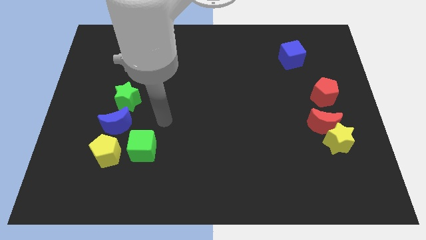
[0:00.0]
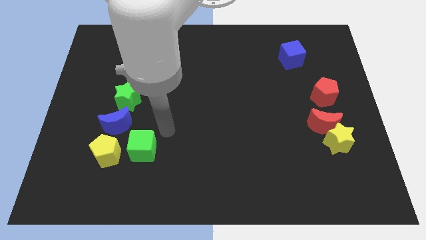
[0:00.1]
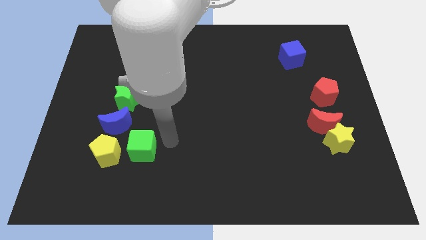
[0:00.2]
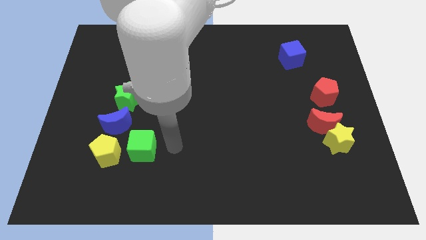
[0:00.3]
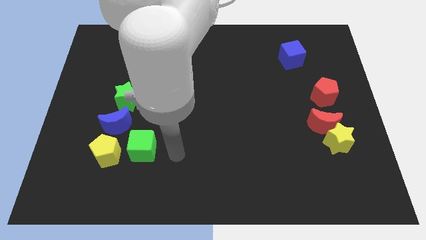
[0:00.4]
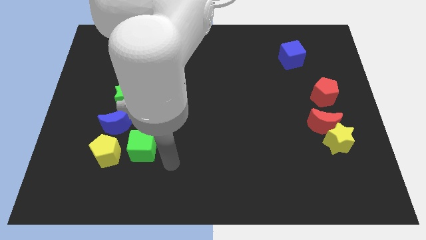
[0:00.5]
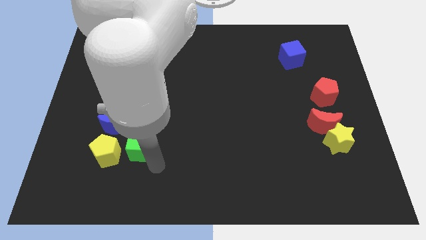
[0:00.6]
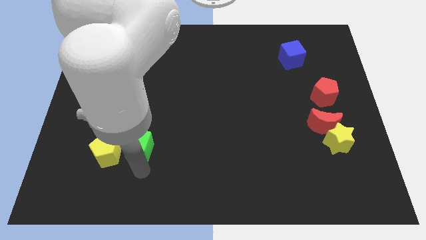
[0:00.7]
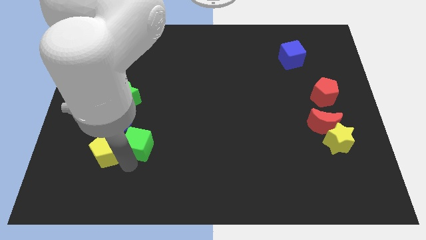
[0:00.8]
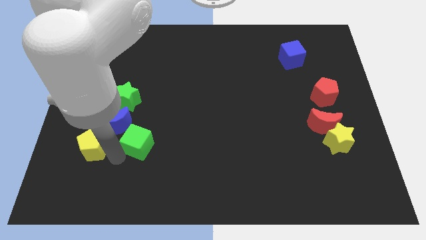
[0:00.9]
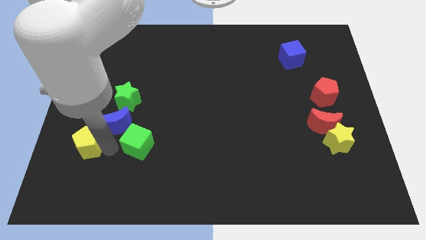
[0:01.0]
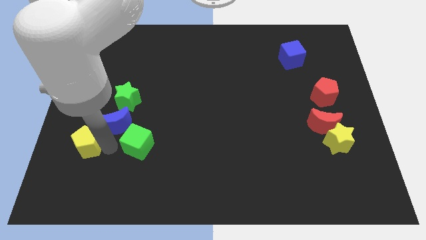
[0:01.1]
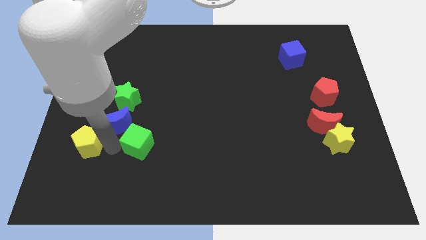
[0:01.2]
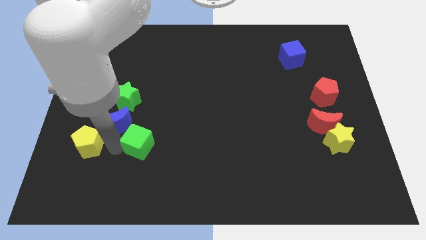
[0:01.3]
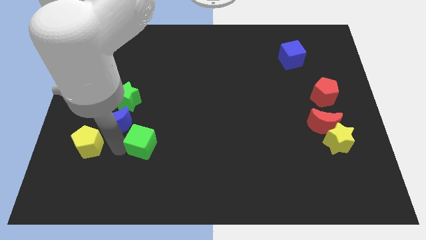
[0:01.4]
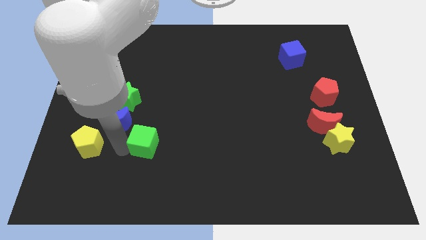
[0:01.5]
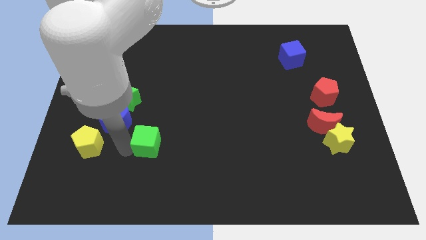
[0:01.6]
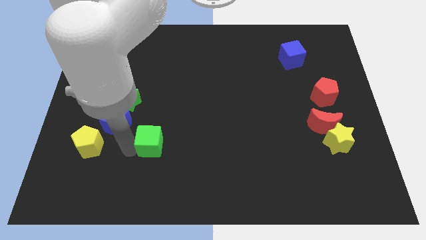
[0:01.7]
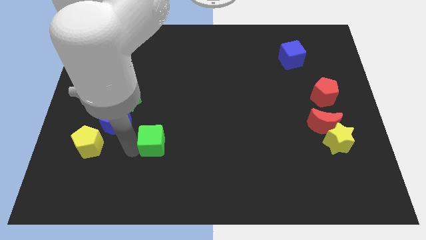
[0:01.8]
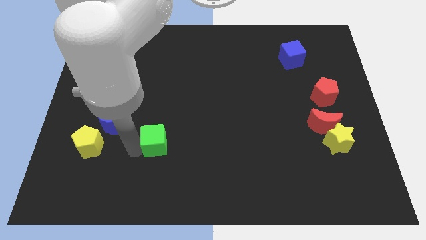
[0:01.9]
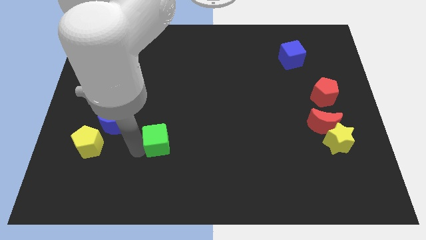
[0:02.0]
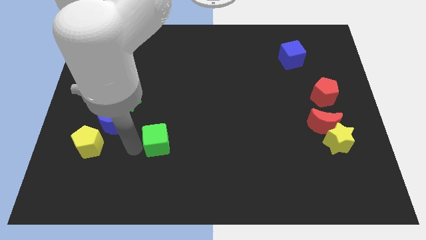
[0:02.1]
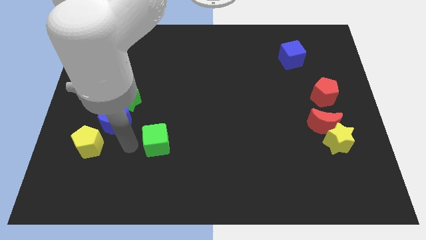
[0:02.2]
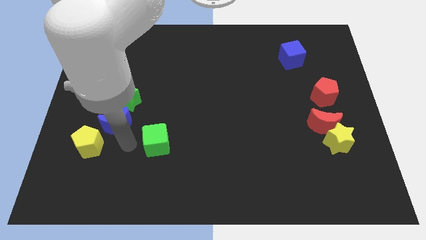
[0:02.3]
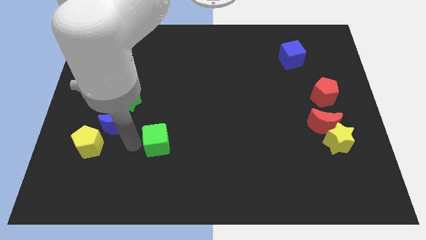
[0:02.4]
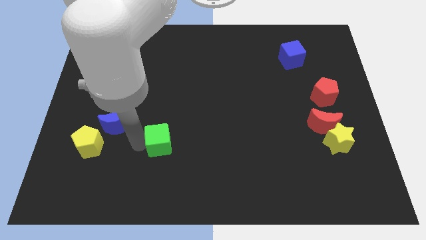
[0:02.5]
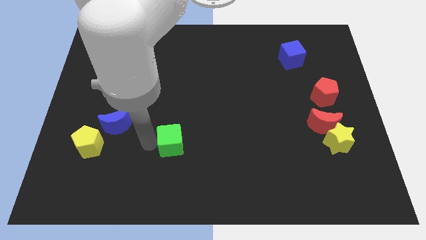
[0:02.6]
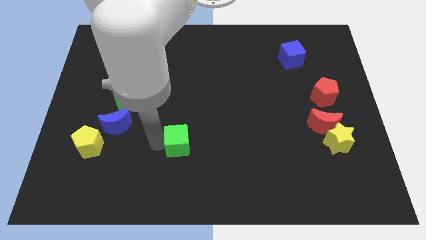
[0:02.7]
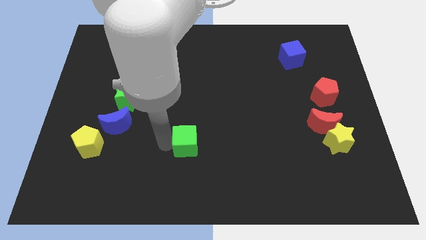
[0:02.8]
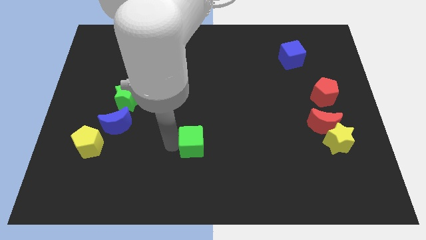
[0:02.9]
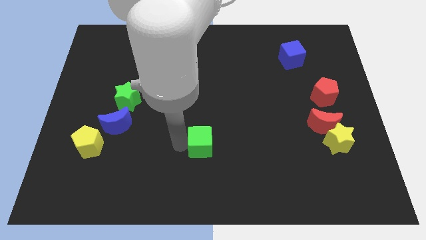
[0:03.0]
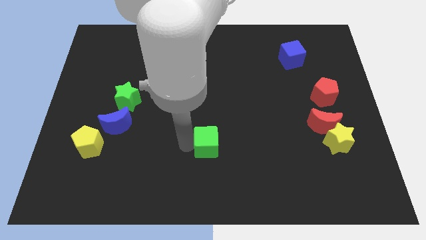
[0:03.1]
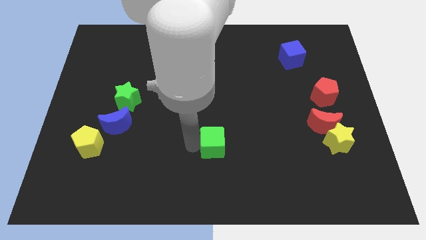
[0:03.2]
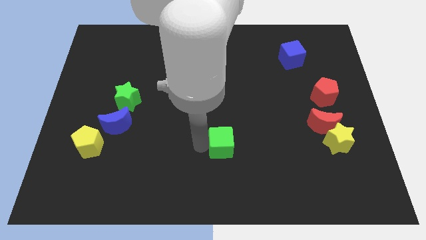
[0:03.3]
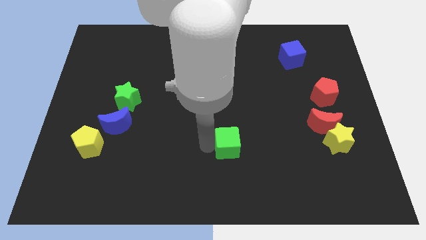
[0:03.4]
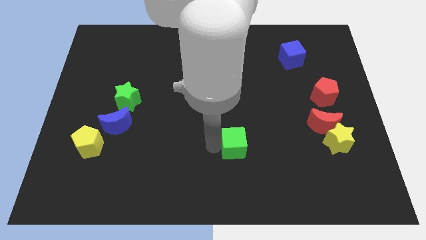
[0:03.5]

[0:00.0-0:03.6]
push the green cube to the right

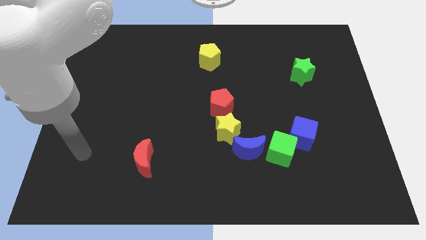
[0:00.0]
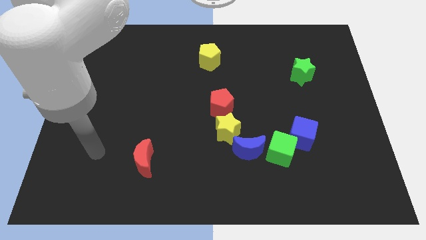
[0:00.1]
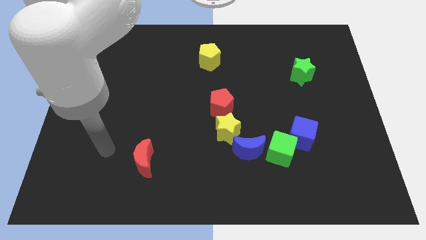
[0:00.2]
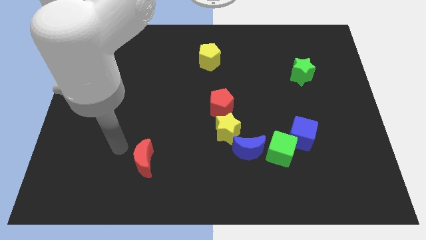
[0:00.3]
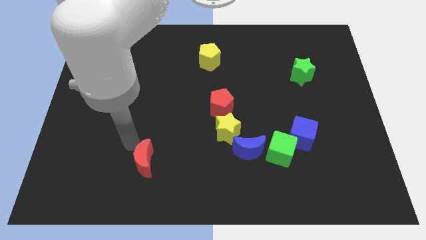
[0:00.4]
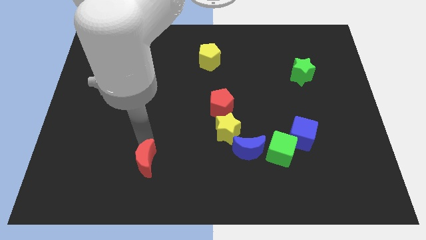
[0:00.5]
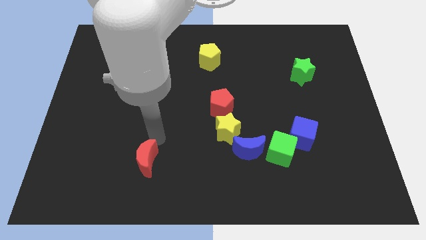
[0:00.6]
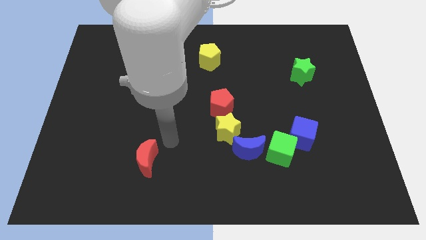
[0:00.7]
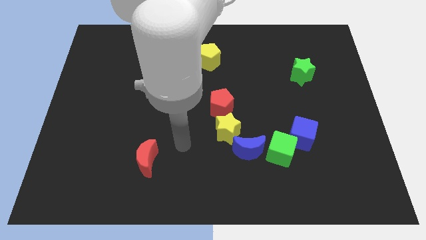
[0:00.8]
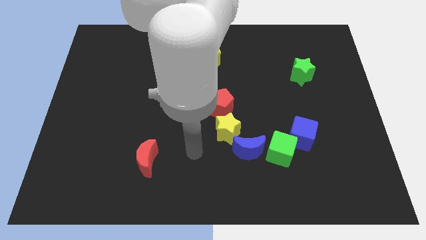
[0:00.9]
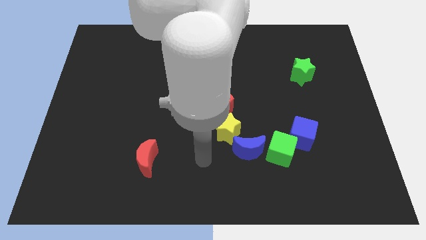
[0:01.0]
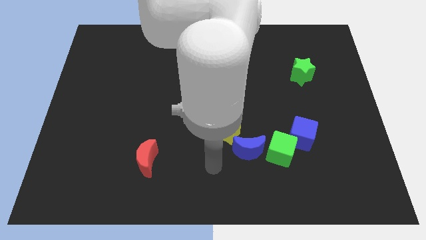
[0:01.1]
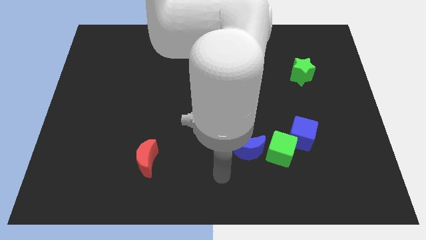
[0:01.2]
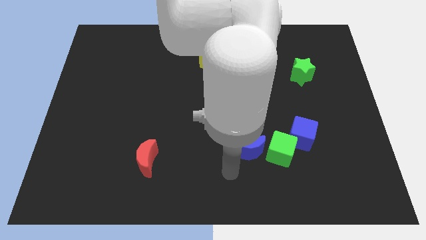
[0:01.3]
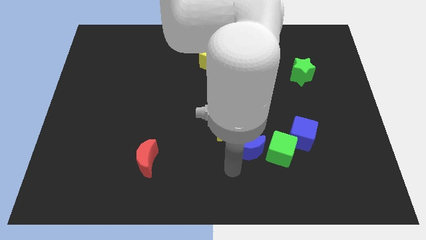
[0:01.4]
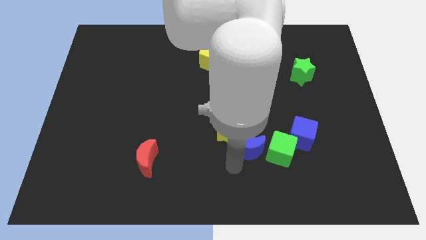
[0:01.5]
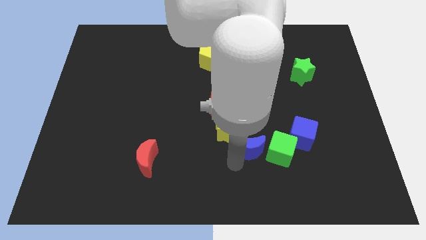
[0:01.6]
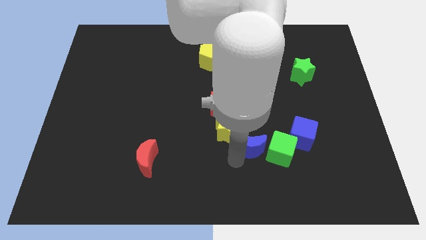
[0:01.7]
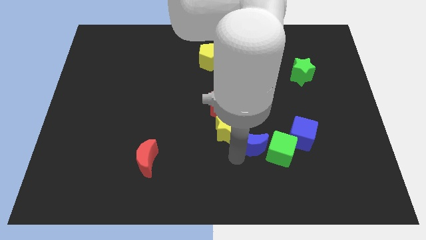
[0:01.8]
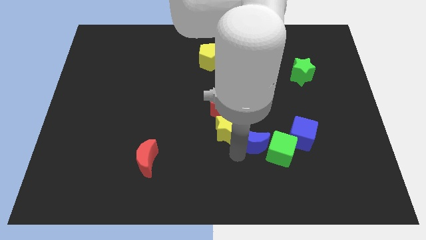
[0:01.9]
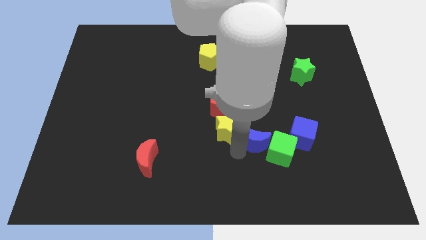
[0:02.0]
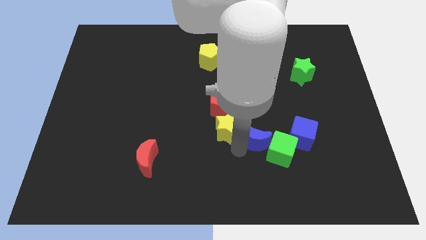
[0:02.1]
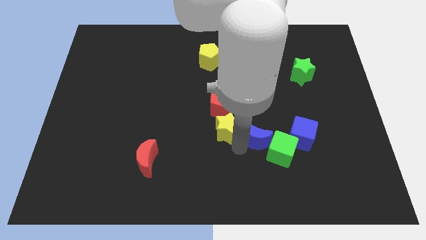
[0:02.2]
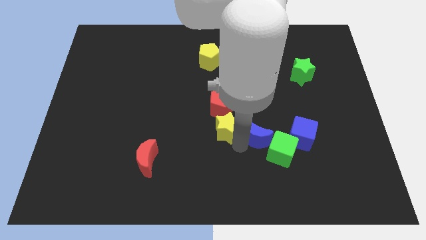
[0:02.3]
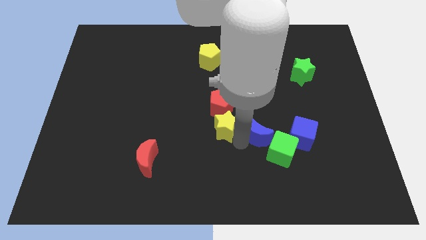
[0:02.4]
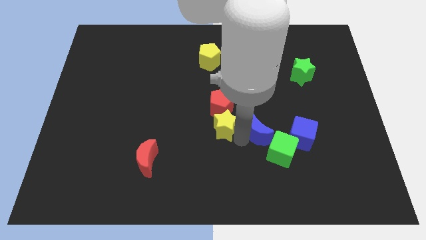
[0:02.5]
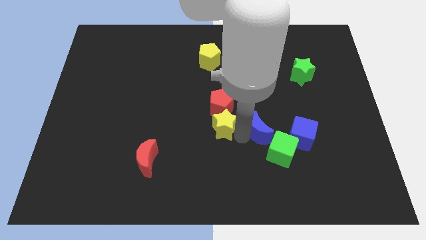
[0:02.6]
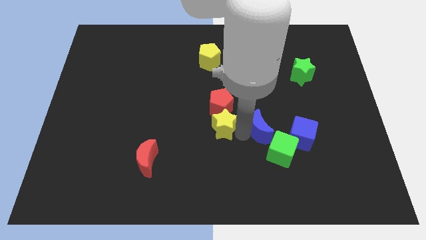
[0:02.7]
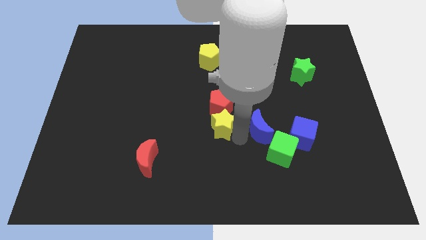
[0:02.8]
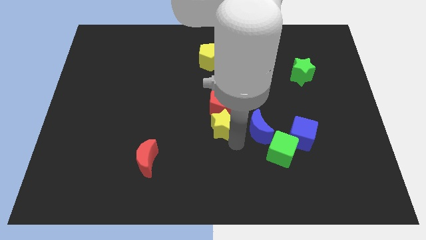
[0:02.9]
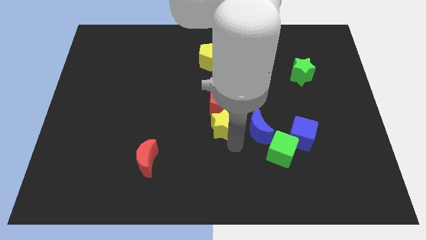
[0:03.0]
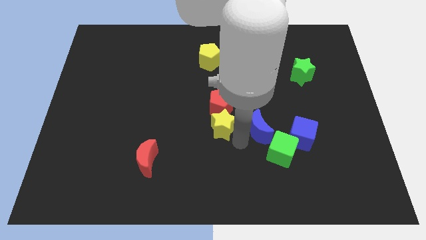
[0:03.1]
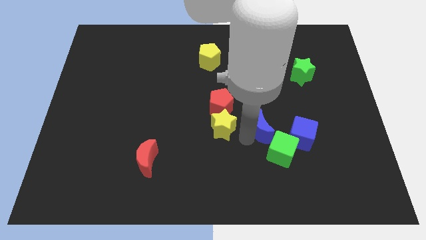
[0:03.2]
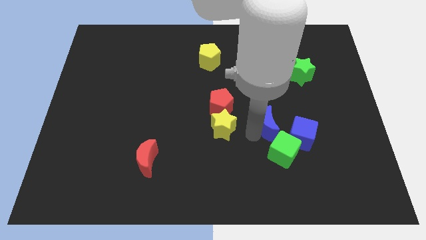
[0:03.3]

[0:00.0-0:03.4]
slightly push the blue moon up and right

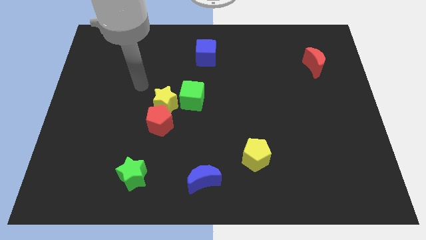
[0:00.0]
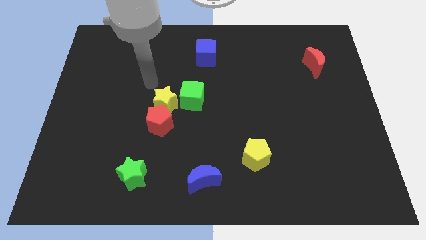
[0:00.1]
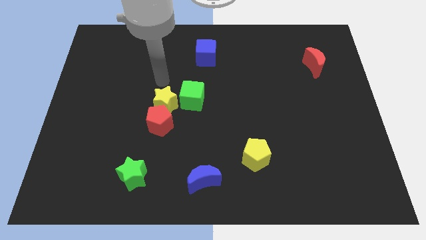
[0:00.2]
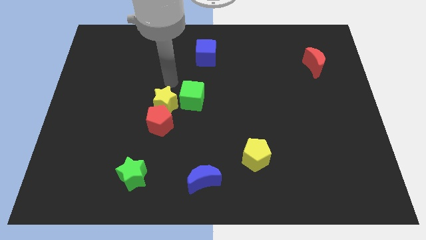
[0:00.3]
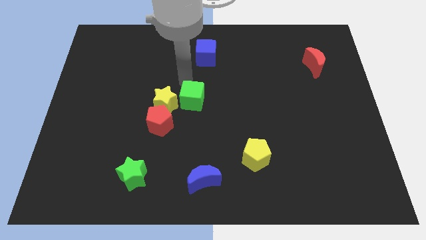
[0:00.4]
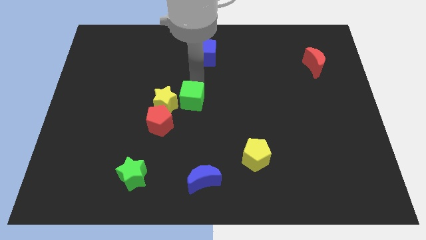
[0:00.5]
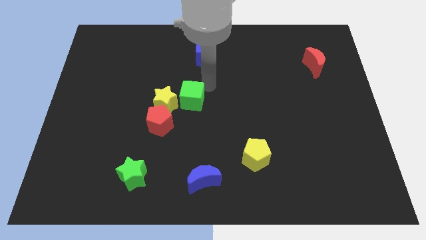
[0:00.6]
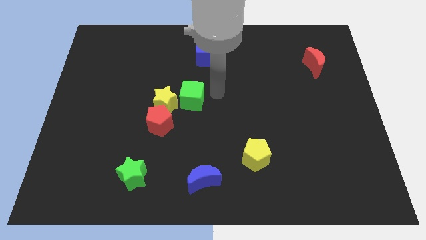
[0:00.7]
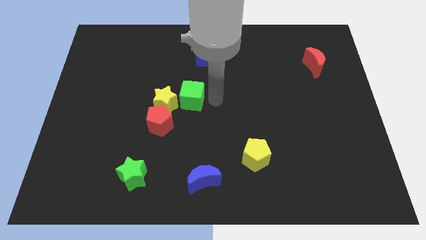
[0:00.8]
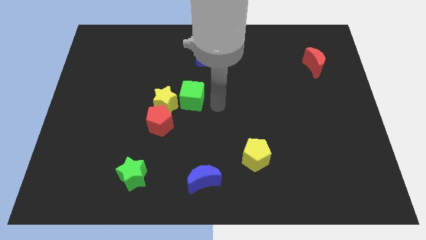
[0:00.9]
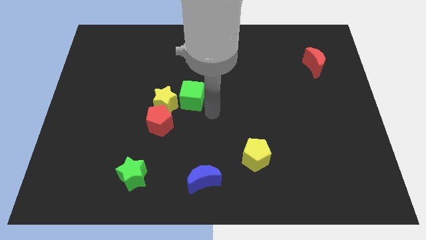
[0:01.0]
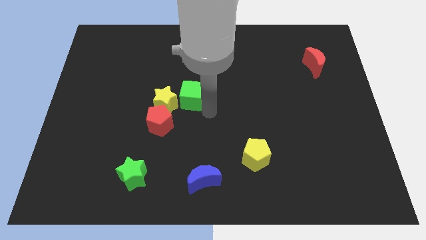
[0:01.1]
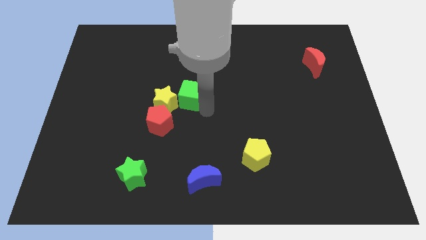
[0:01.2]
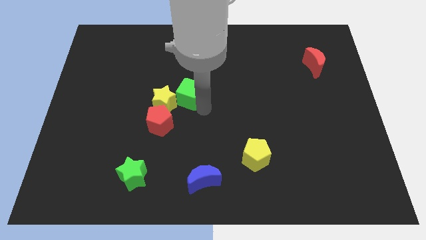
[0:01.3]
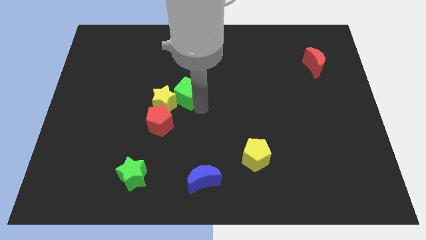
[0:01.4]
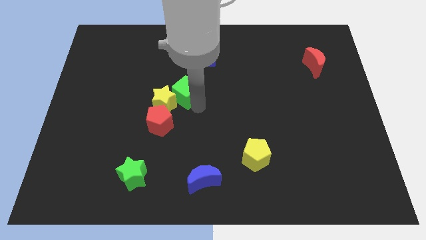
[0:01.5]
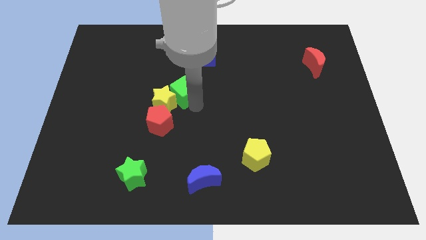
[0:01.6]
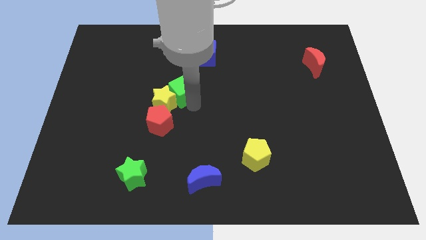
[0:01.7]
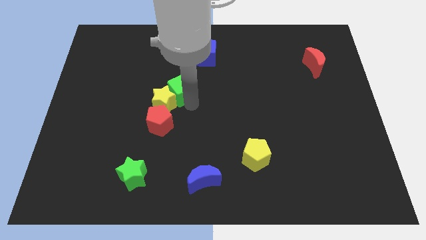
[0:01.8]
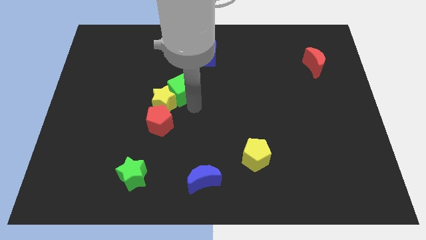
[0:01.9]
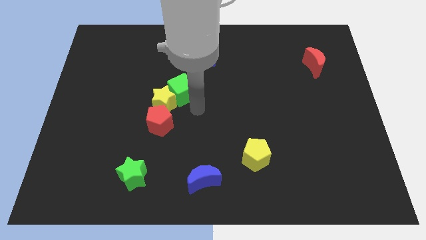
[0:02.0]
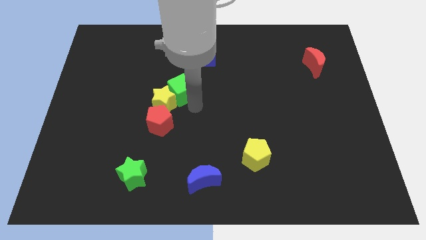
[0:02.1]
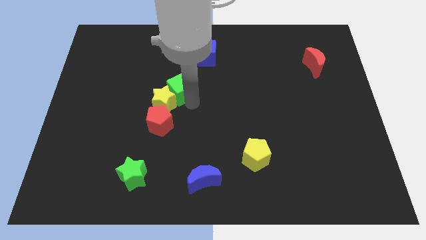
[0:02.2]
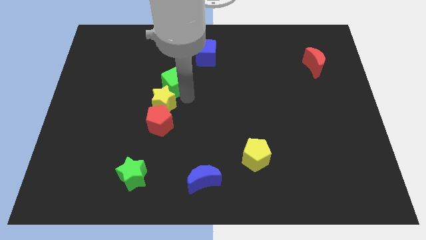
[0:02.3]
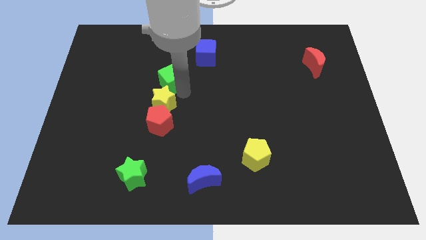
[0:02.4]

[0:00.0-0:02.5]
slightly move the green cube up and then to the left
